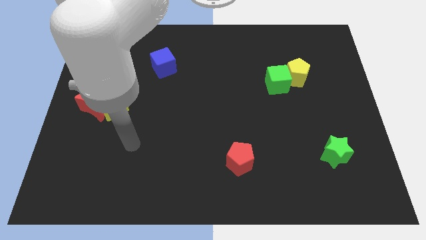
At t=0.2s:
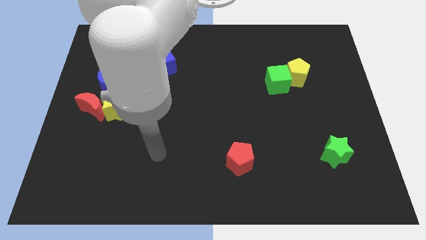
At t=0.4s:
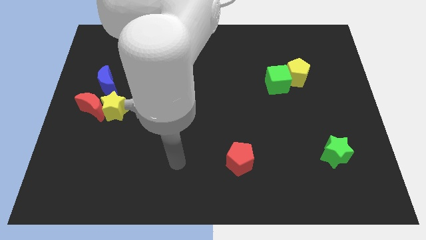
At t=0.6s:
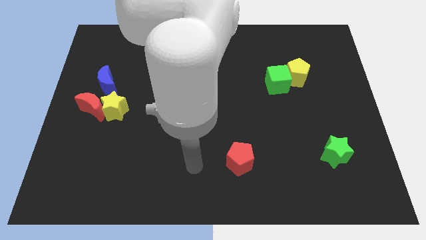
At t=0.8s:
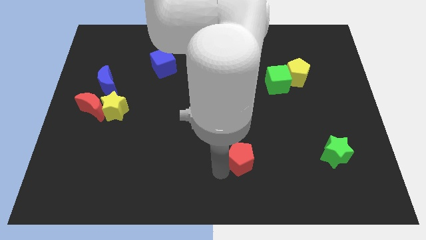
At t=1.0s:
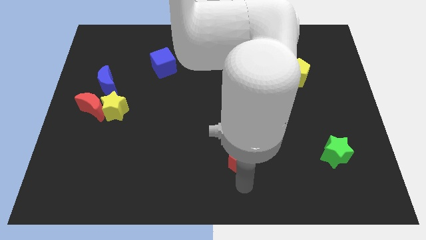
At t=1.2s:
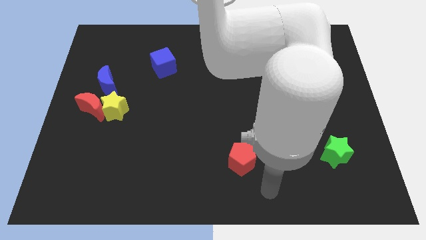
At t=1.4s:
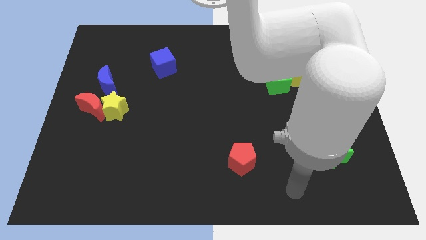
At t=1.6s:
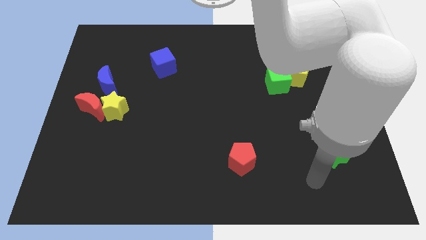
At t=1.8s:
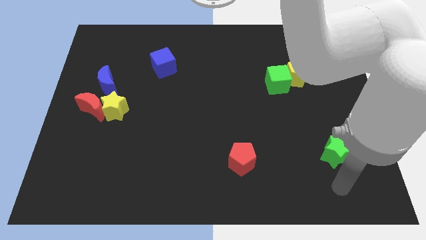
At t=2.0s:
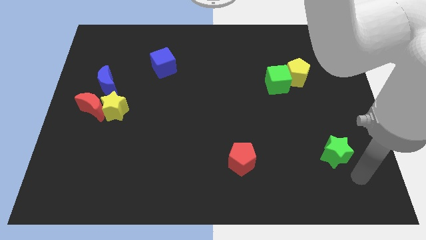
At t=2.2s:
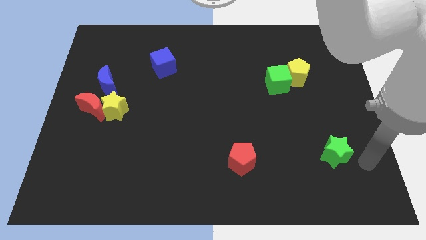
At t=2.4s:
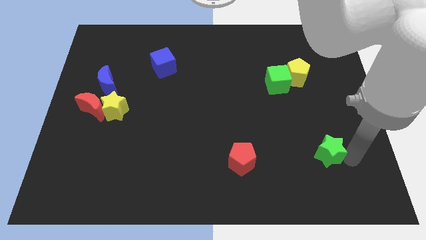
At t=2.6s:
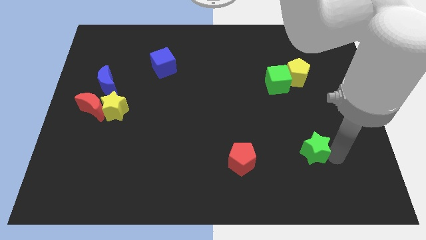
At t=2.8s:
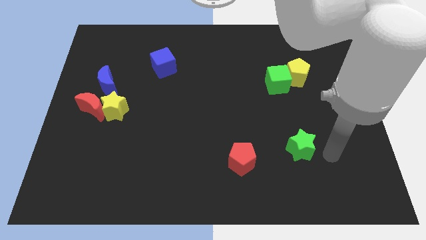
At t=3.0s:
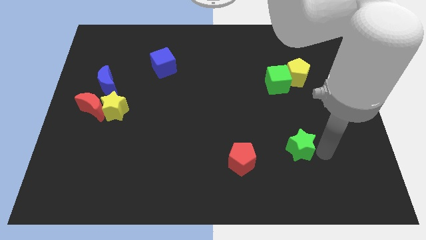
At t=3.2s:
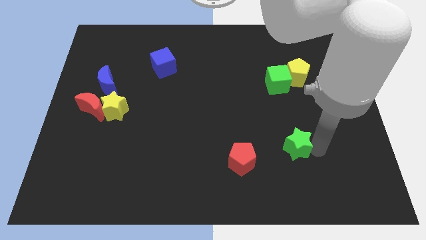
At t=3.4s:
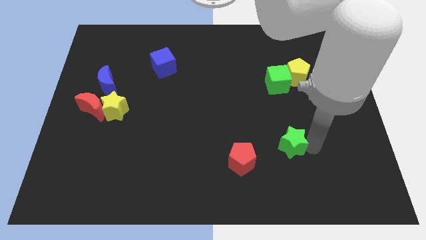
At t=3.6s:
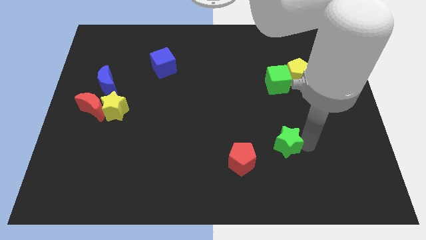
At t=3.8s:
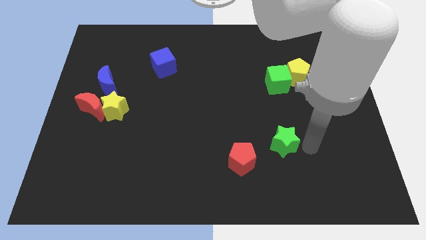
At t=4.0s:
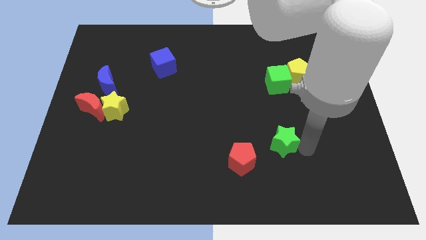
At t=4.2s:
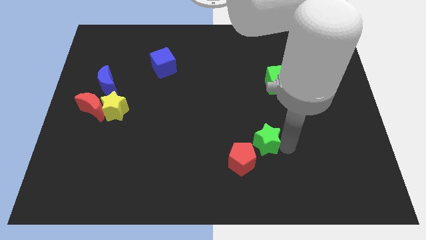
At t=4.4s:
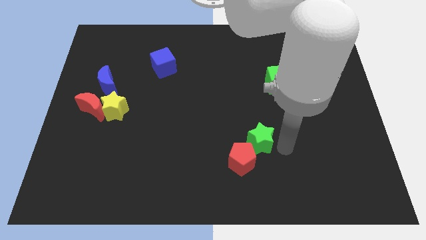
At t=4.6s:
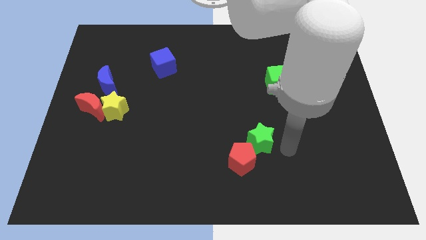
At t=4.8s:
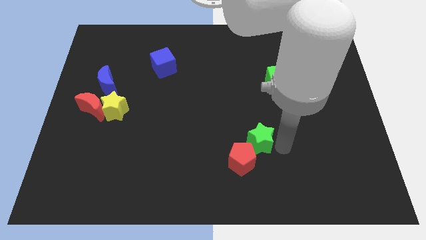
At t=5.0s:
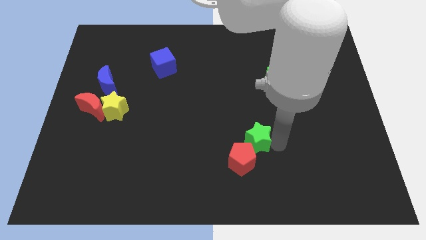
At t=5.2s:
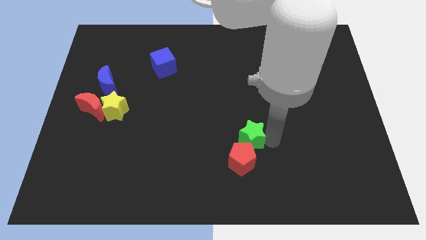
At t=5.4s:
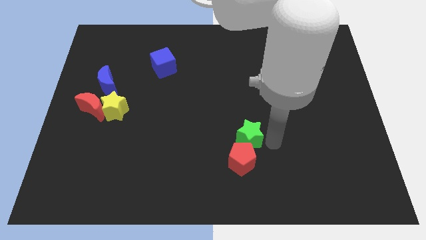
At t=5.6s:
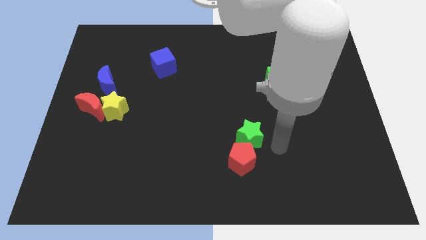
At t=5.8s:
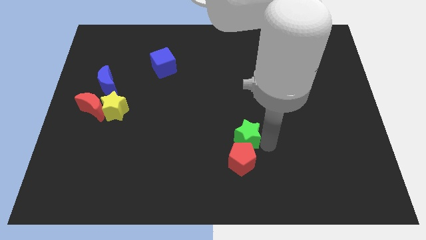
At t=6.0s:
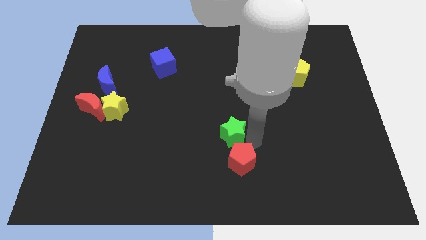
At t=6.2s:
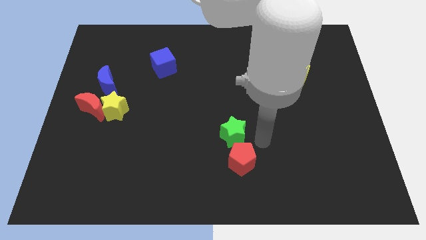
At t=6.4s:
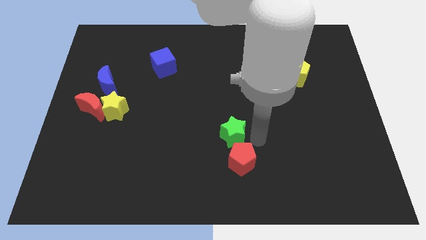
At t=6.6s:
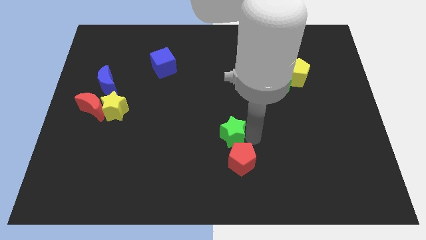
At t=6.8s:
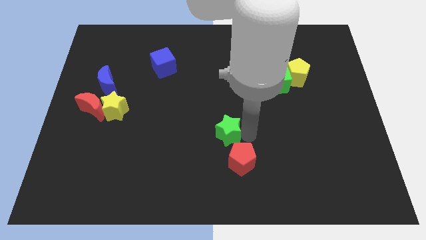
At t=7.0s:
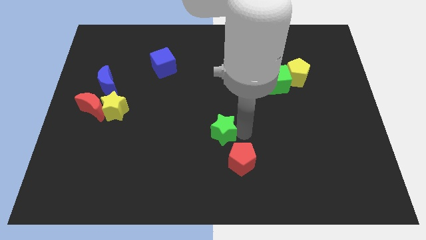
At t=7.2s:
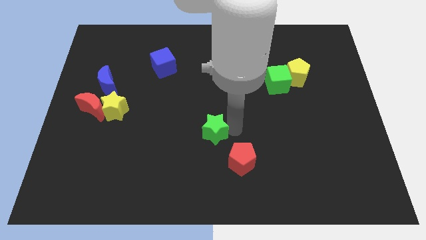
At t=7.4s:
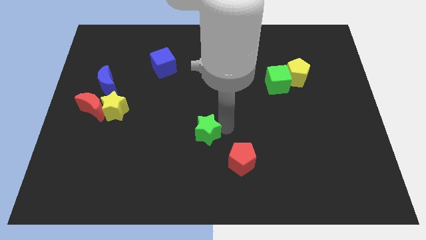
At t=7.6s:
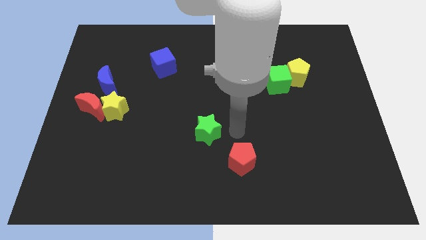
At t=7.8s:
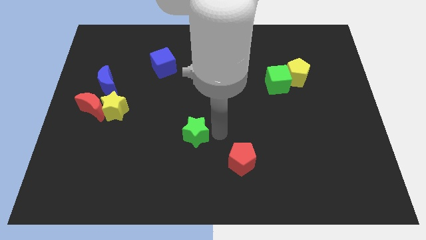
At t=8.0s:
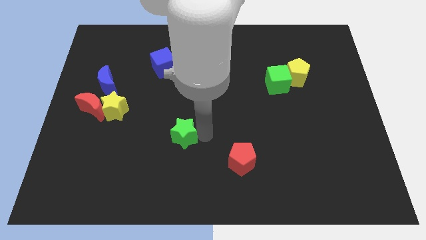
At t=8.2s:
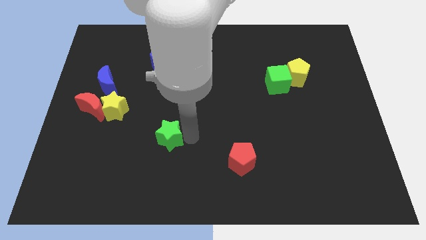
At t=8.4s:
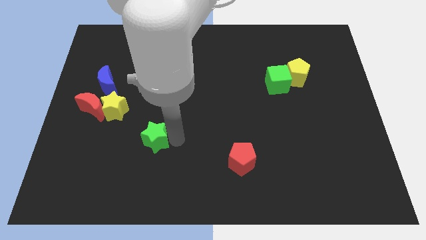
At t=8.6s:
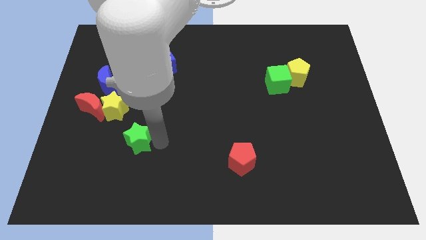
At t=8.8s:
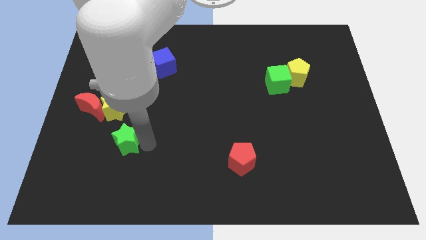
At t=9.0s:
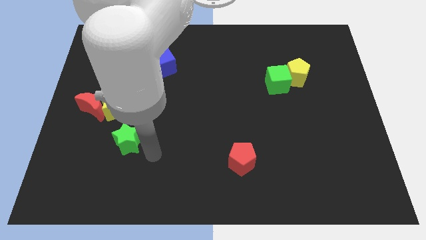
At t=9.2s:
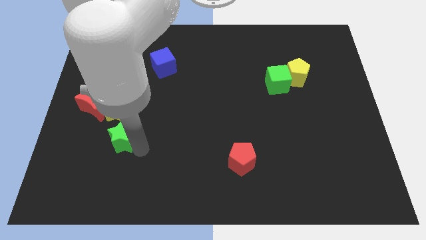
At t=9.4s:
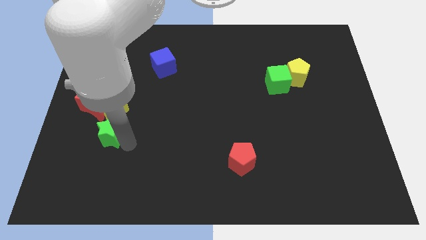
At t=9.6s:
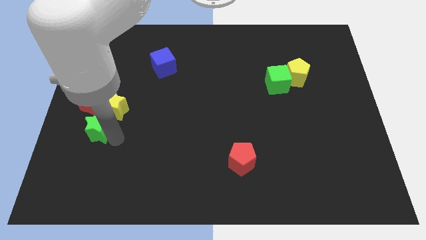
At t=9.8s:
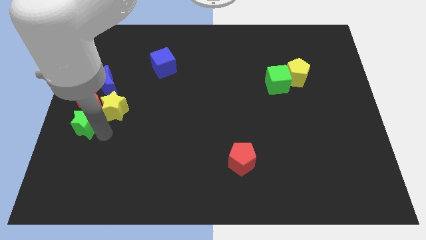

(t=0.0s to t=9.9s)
push the green star to the center left

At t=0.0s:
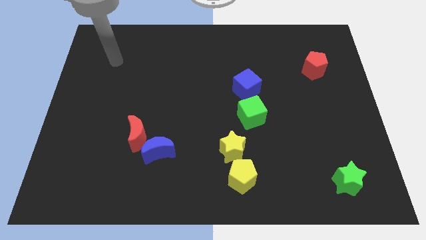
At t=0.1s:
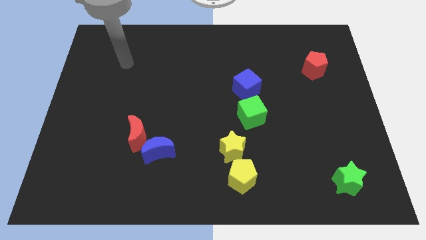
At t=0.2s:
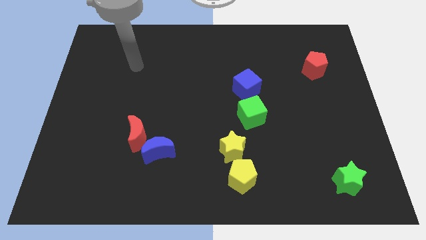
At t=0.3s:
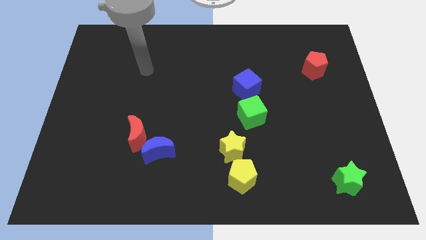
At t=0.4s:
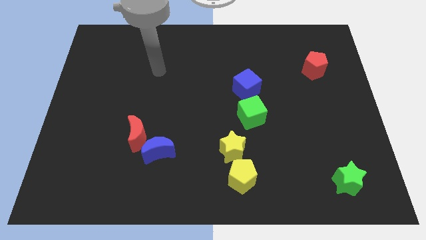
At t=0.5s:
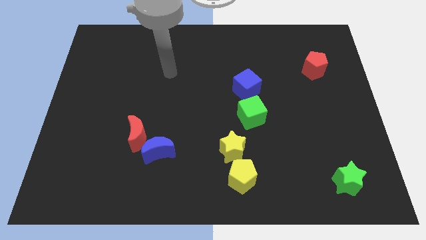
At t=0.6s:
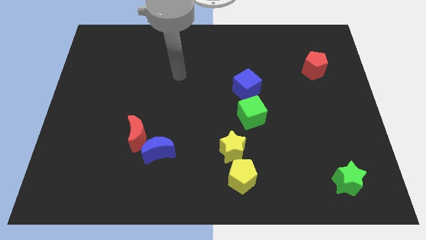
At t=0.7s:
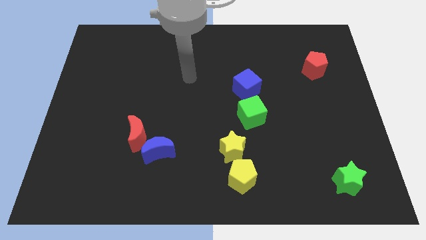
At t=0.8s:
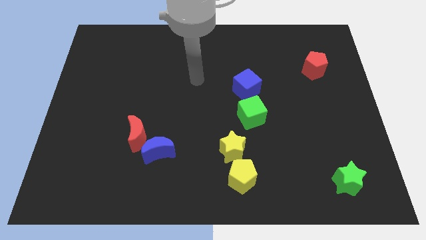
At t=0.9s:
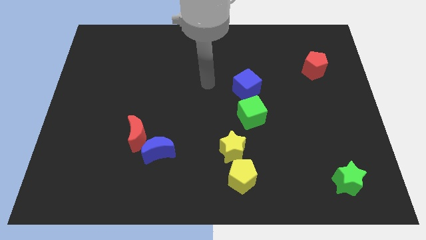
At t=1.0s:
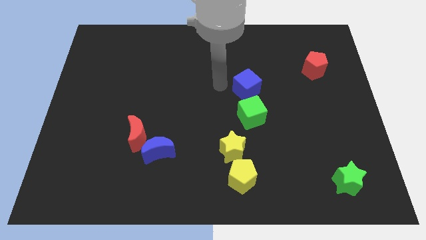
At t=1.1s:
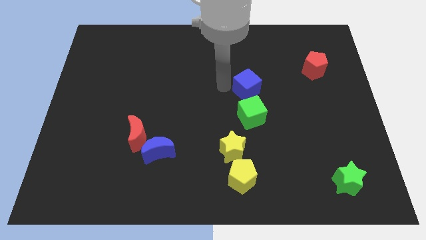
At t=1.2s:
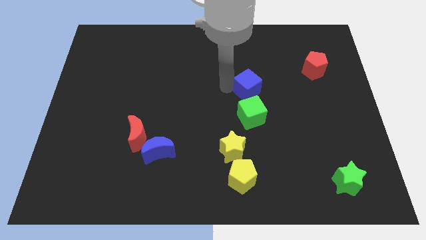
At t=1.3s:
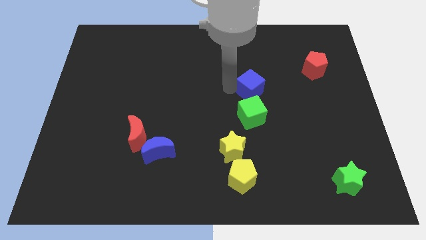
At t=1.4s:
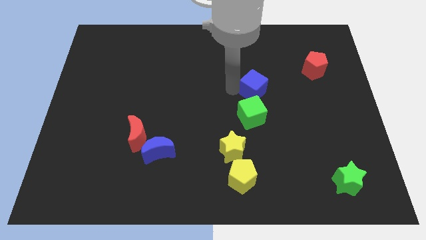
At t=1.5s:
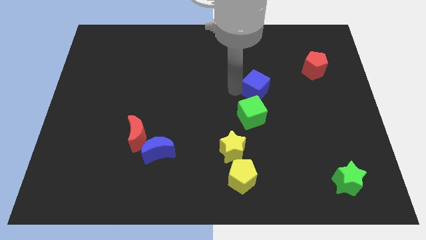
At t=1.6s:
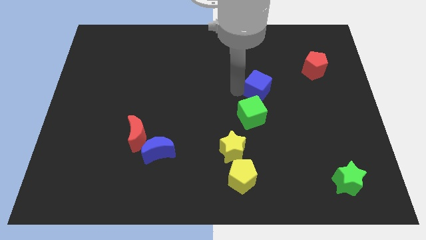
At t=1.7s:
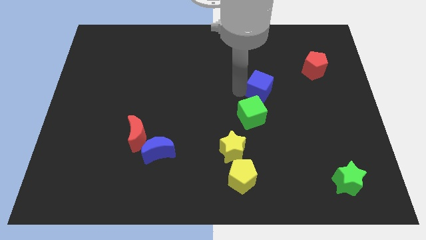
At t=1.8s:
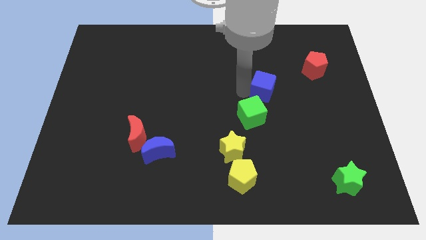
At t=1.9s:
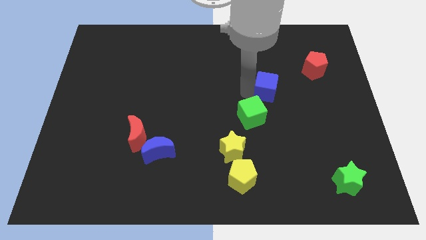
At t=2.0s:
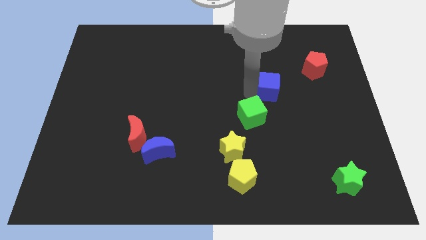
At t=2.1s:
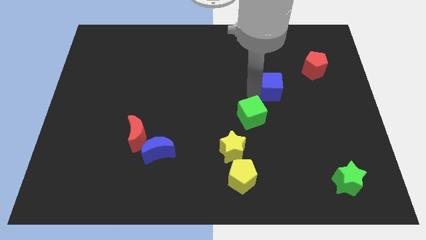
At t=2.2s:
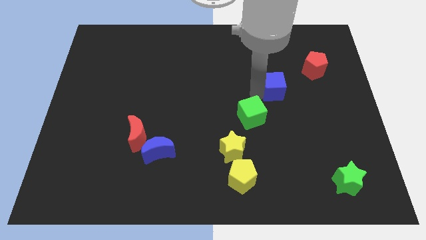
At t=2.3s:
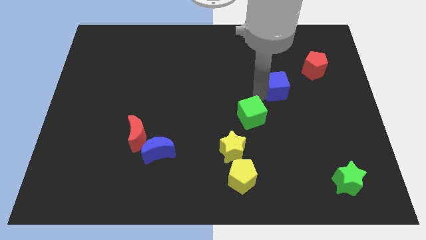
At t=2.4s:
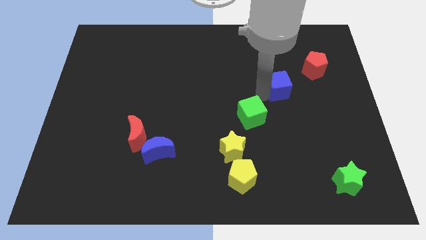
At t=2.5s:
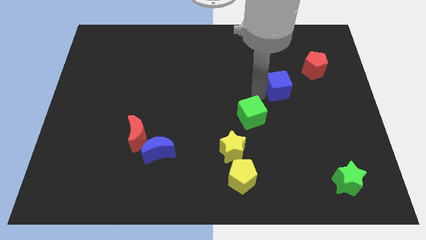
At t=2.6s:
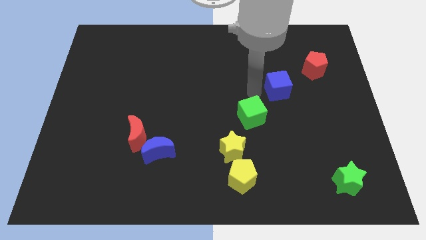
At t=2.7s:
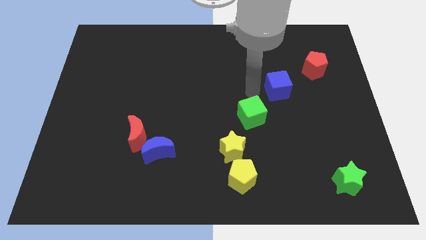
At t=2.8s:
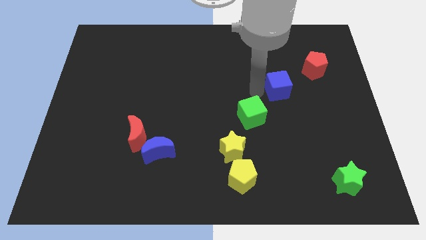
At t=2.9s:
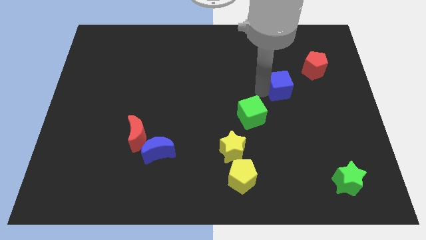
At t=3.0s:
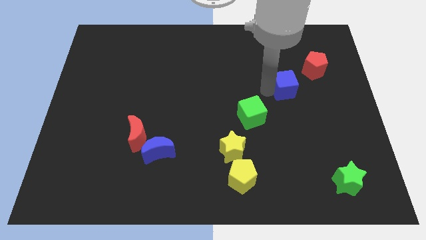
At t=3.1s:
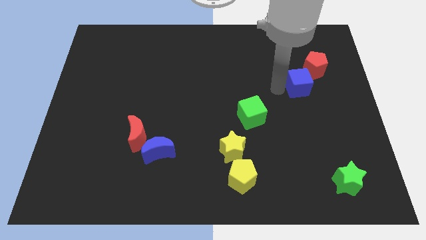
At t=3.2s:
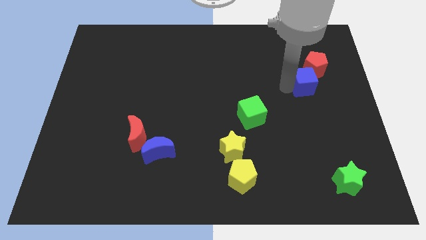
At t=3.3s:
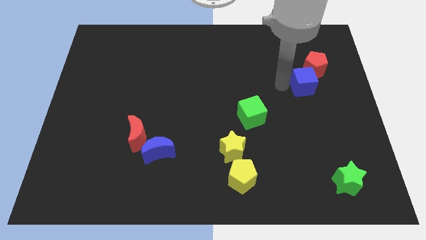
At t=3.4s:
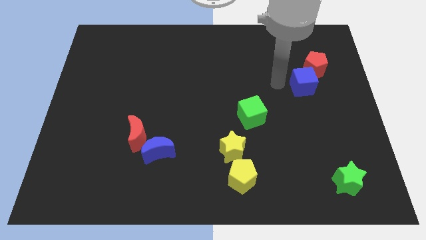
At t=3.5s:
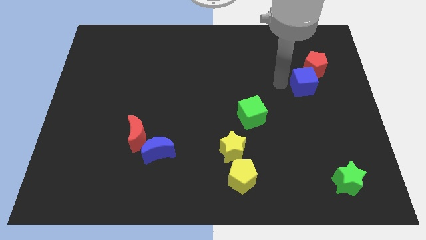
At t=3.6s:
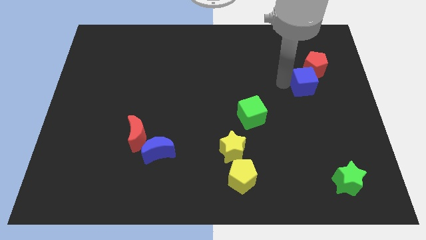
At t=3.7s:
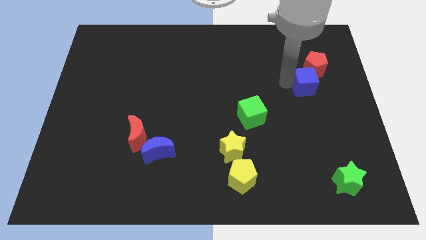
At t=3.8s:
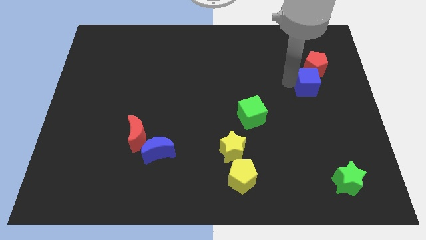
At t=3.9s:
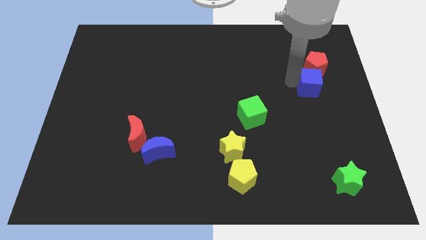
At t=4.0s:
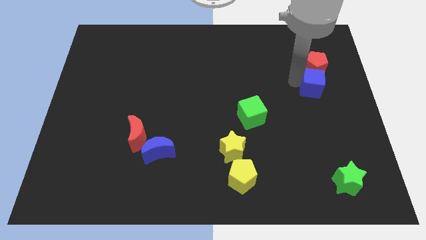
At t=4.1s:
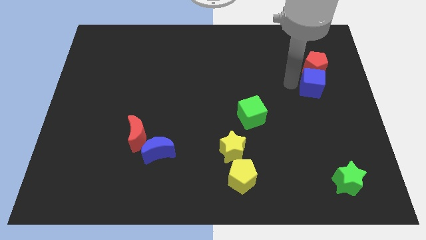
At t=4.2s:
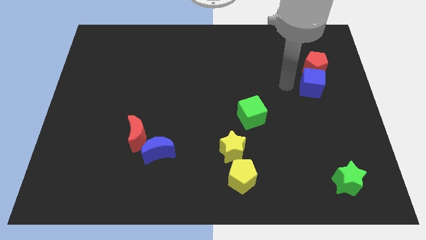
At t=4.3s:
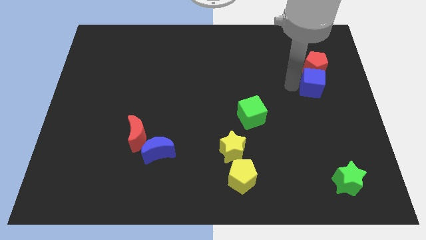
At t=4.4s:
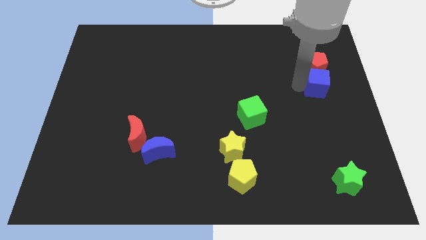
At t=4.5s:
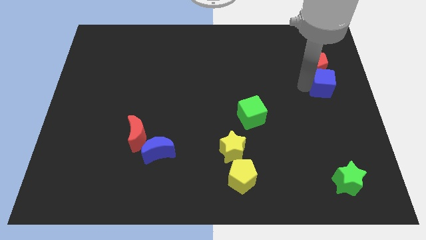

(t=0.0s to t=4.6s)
push the blue cube to the right side
